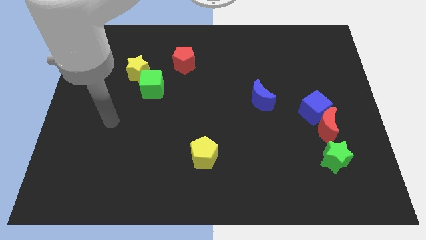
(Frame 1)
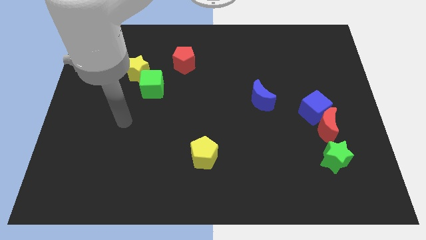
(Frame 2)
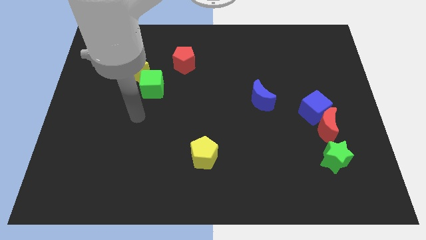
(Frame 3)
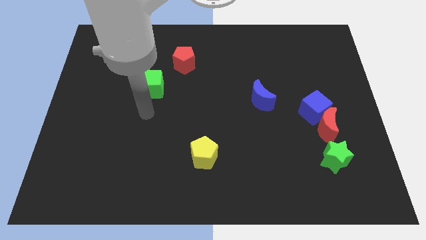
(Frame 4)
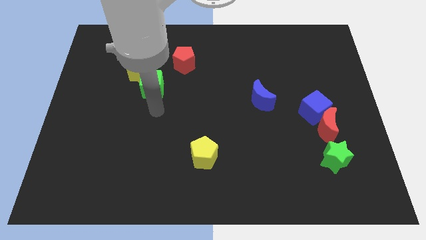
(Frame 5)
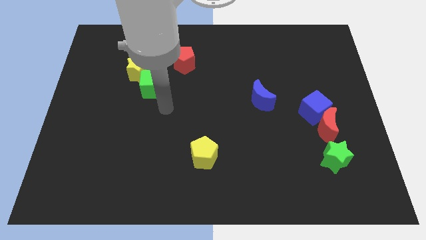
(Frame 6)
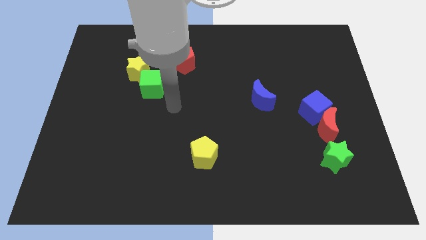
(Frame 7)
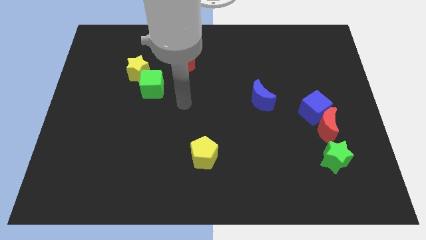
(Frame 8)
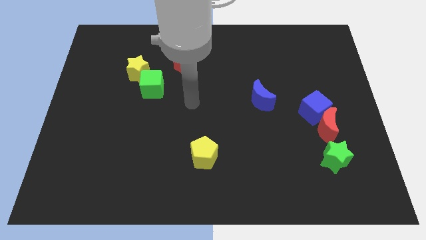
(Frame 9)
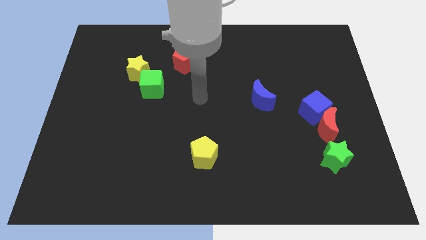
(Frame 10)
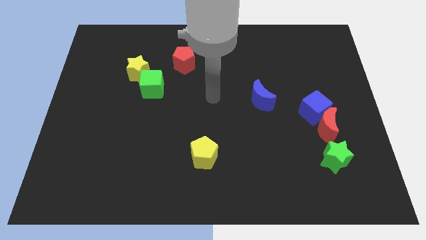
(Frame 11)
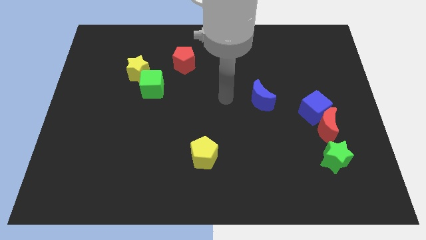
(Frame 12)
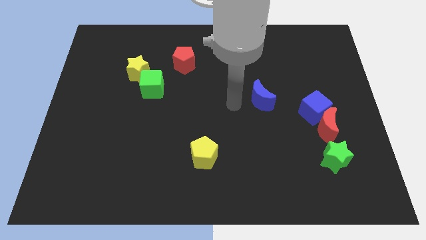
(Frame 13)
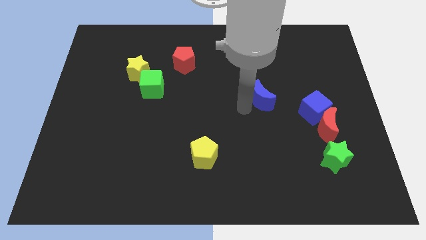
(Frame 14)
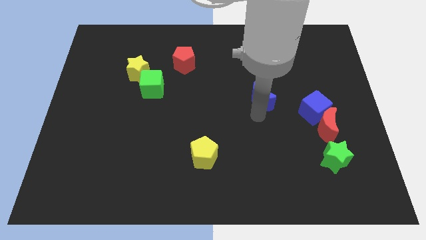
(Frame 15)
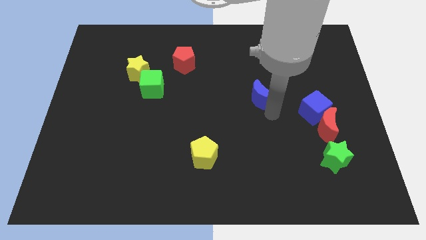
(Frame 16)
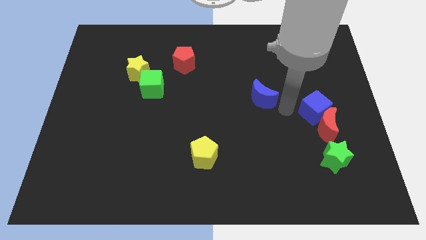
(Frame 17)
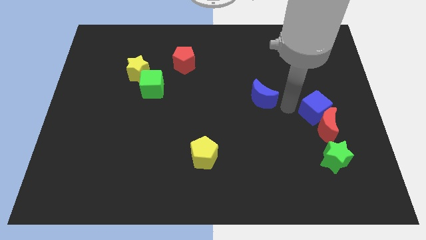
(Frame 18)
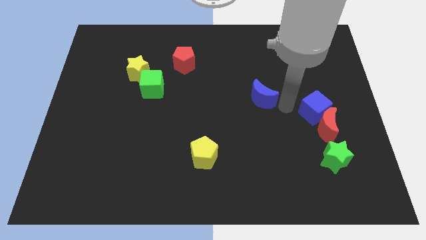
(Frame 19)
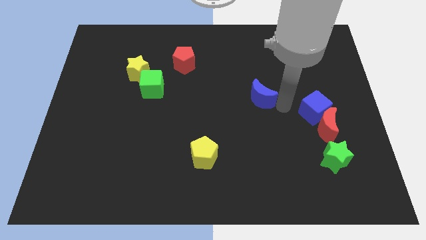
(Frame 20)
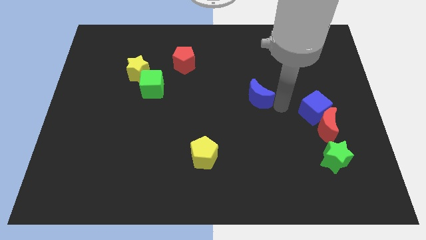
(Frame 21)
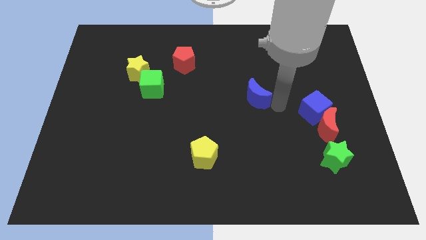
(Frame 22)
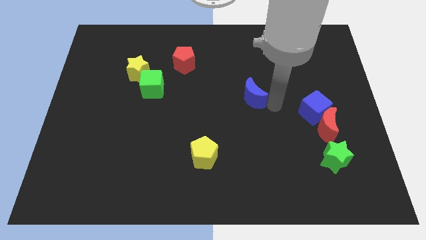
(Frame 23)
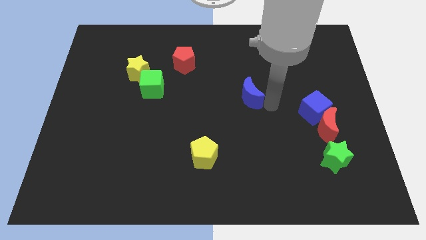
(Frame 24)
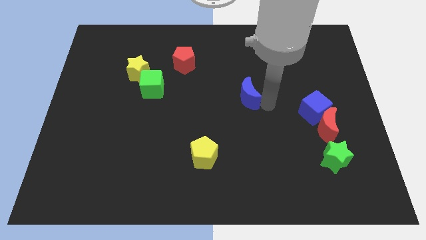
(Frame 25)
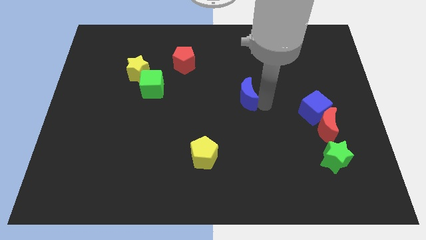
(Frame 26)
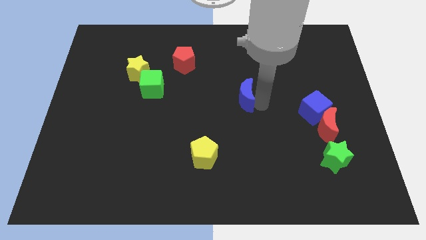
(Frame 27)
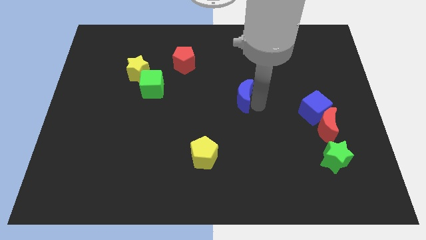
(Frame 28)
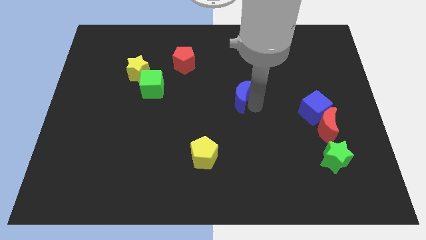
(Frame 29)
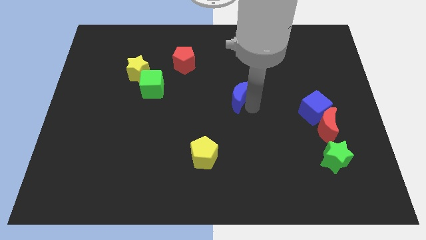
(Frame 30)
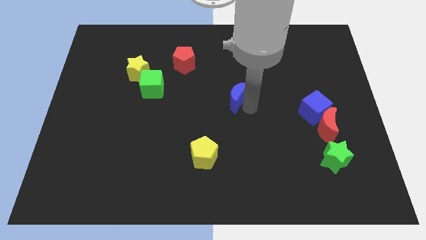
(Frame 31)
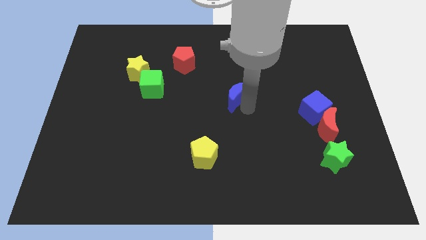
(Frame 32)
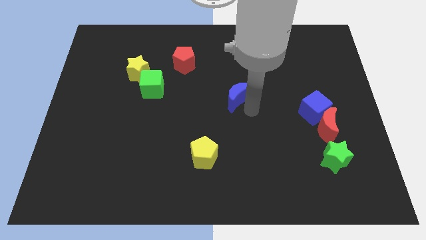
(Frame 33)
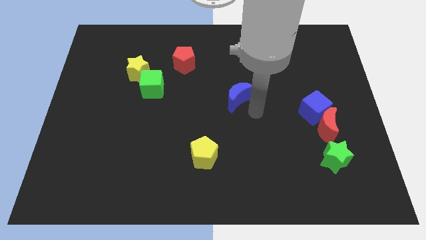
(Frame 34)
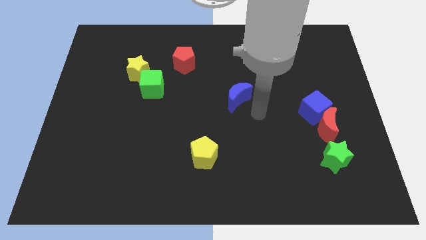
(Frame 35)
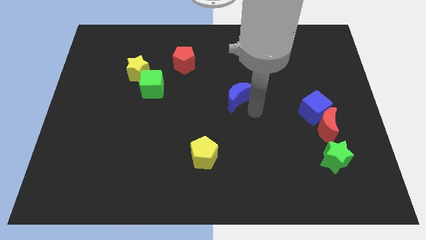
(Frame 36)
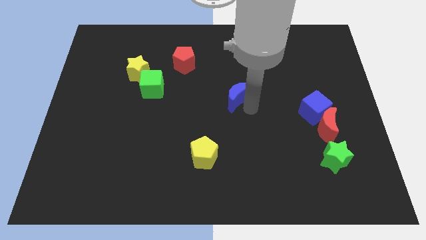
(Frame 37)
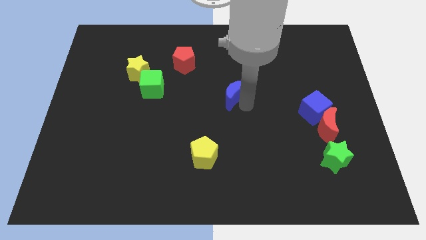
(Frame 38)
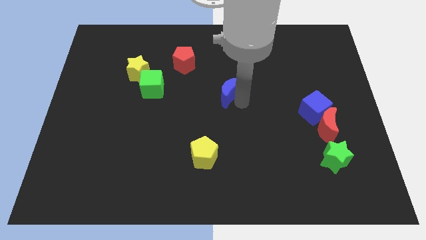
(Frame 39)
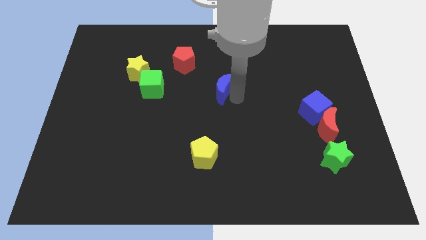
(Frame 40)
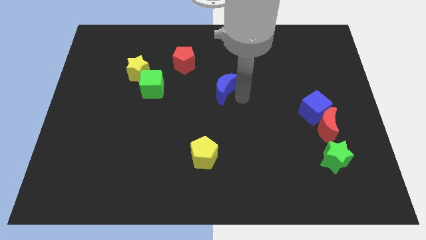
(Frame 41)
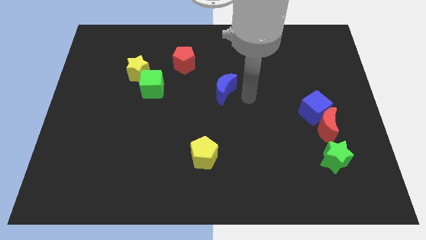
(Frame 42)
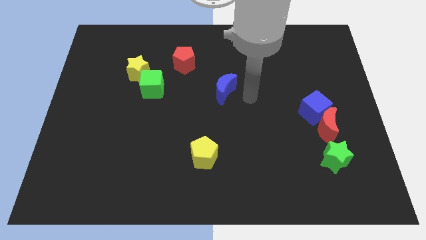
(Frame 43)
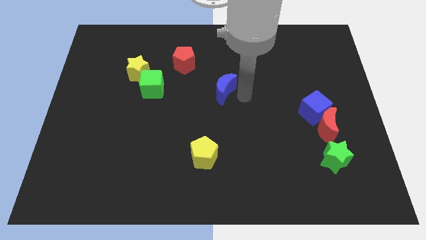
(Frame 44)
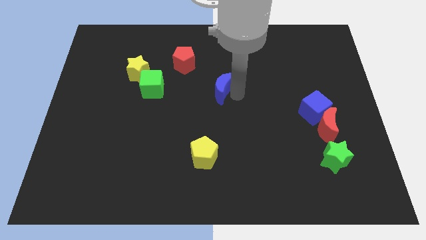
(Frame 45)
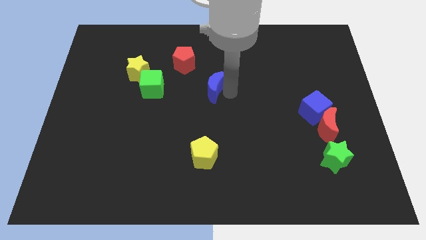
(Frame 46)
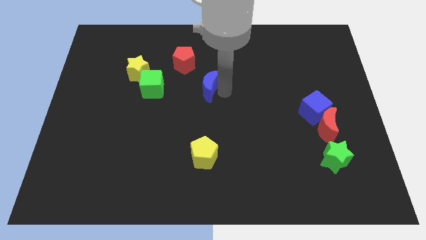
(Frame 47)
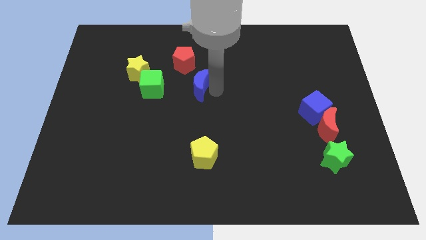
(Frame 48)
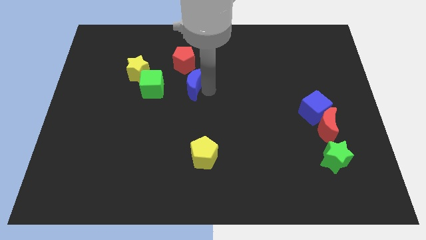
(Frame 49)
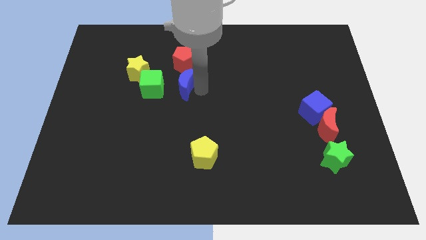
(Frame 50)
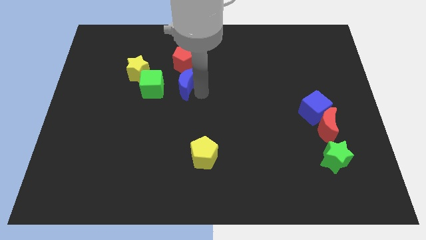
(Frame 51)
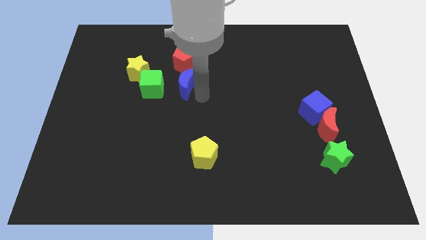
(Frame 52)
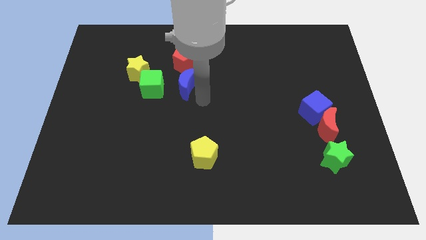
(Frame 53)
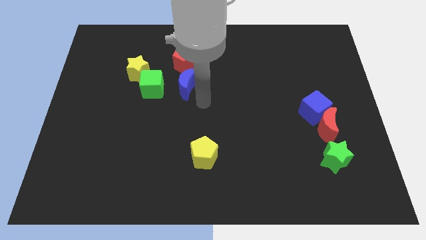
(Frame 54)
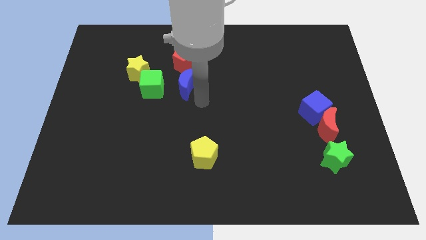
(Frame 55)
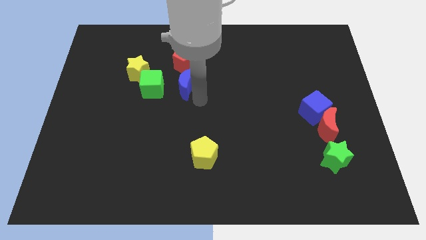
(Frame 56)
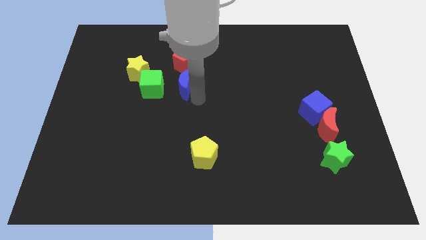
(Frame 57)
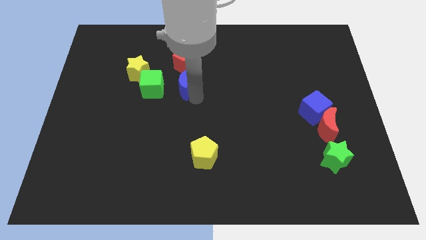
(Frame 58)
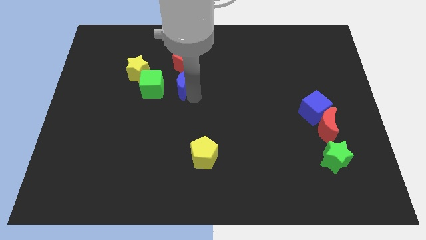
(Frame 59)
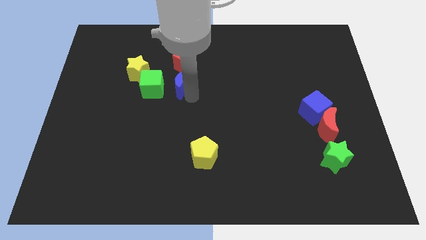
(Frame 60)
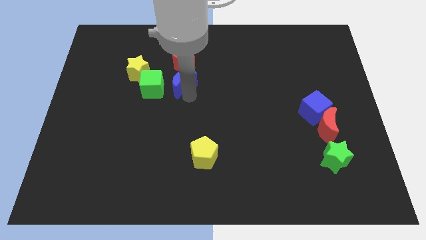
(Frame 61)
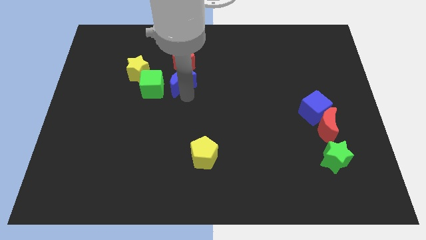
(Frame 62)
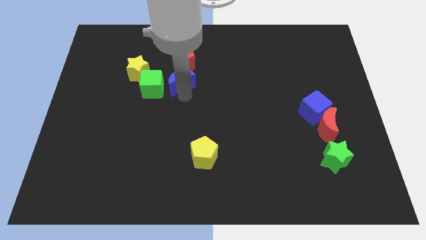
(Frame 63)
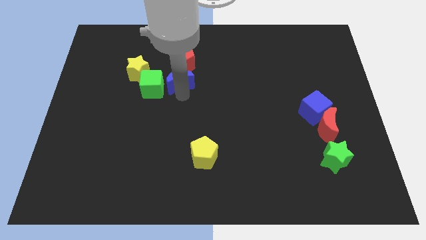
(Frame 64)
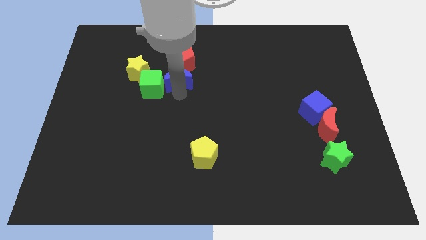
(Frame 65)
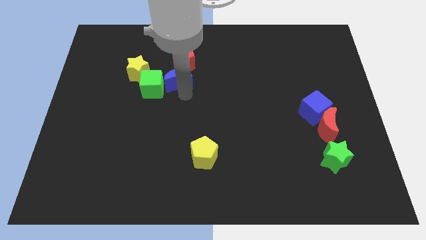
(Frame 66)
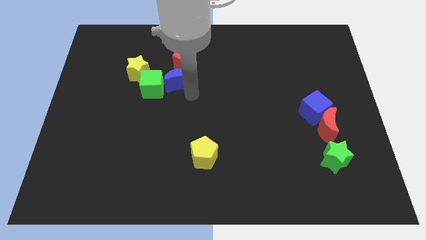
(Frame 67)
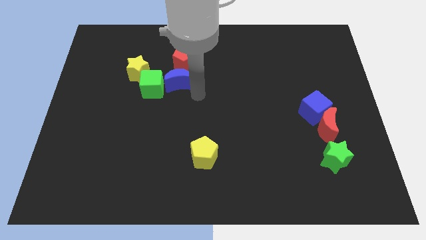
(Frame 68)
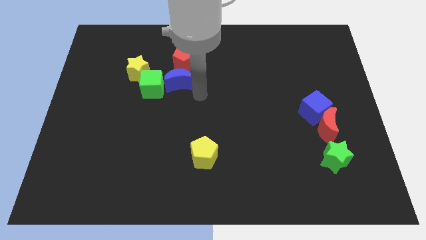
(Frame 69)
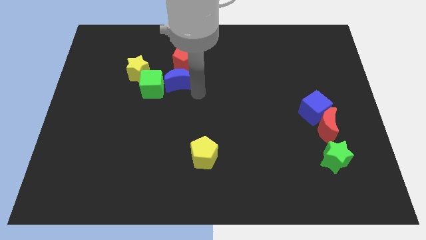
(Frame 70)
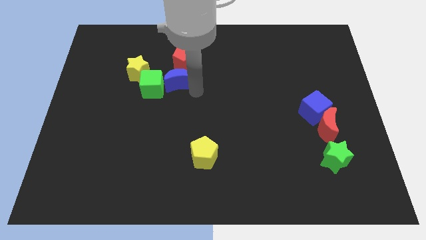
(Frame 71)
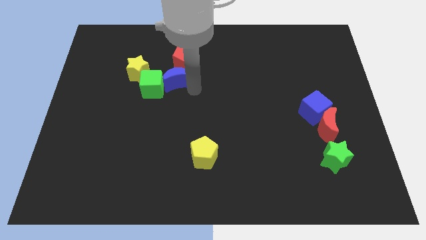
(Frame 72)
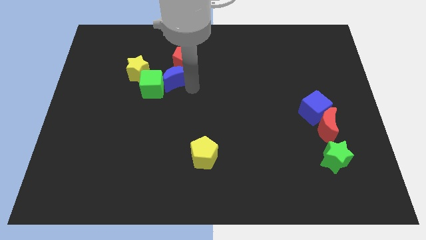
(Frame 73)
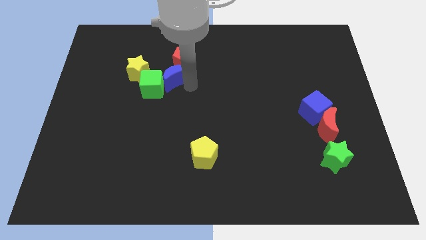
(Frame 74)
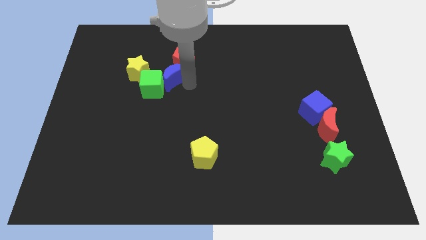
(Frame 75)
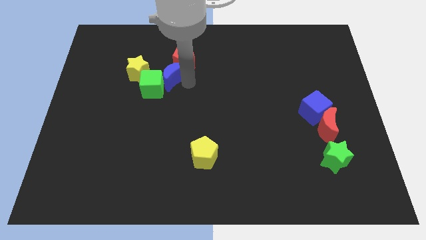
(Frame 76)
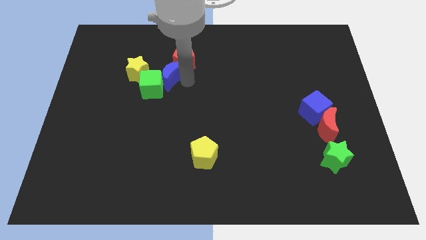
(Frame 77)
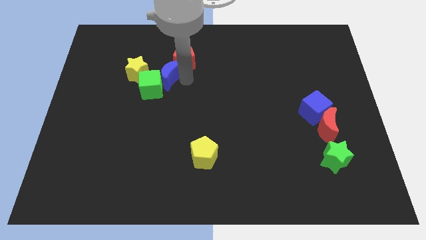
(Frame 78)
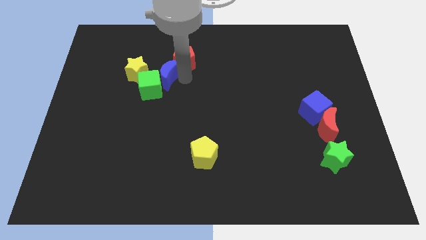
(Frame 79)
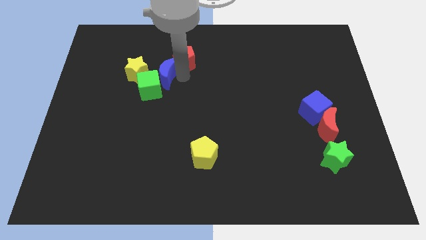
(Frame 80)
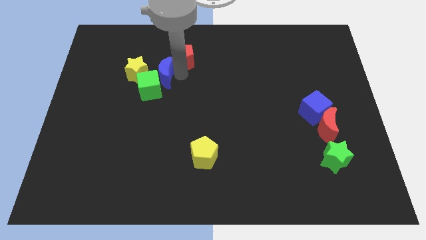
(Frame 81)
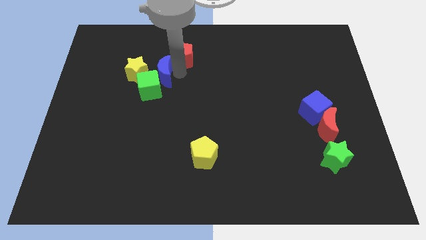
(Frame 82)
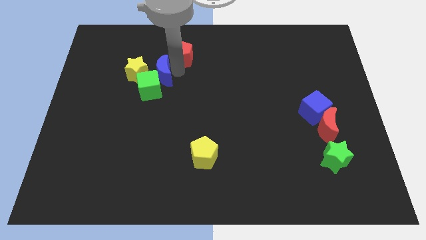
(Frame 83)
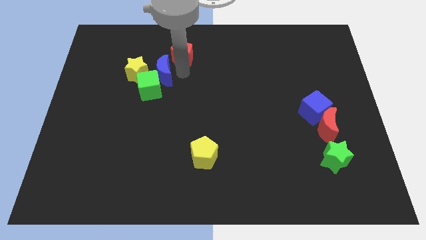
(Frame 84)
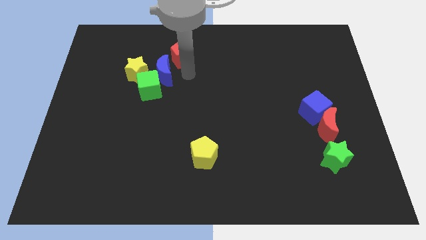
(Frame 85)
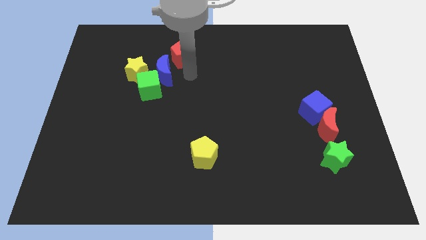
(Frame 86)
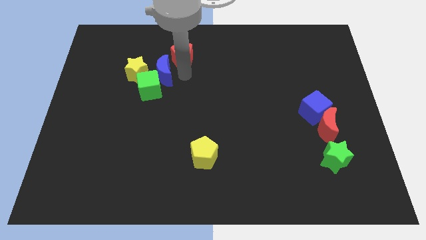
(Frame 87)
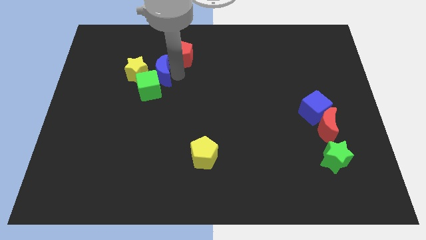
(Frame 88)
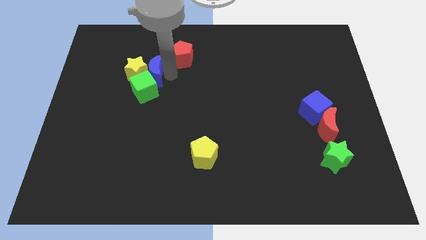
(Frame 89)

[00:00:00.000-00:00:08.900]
put the blue moon next to the yellow star
